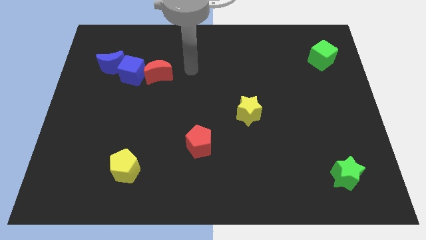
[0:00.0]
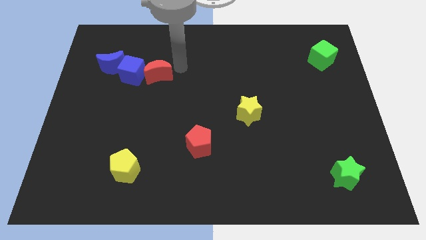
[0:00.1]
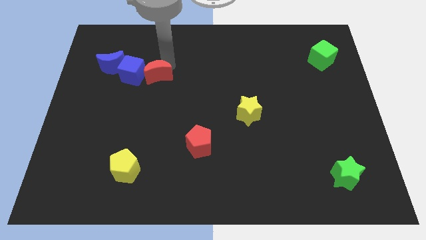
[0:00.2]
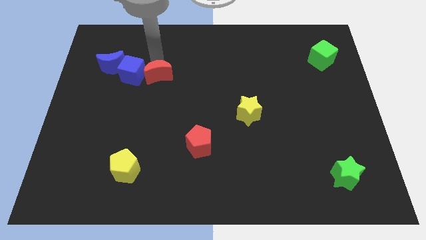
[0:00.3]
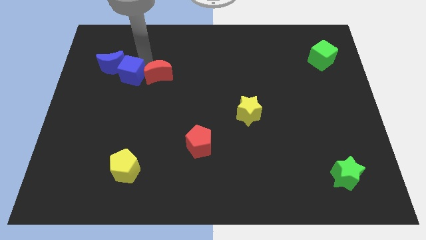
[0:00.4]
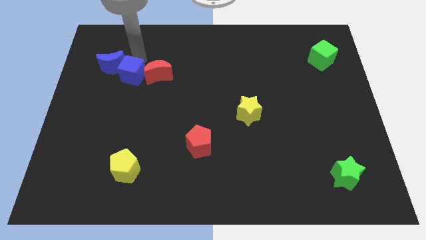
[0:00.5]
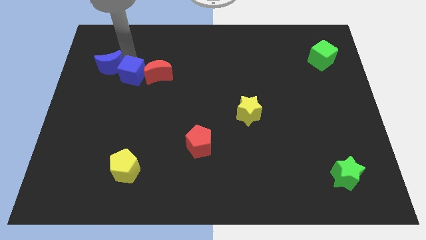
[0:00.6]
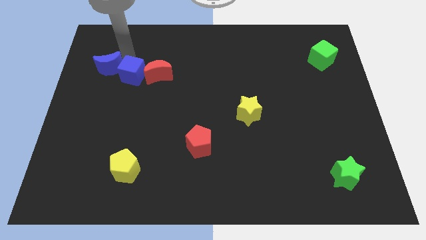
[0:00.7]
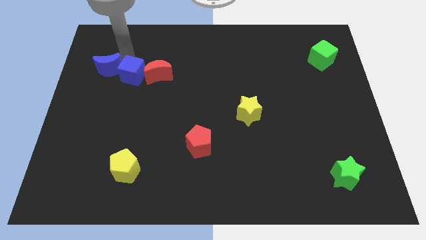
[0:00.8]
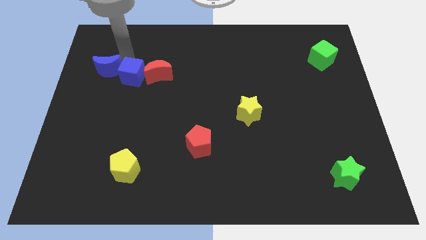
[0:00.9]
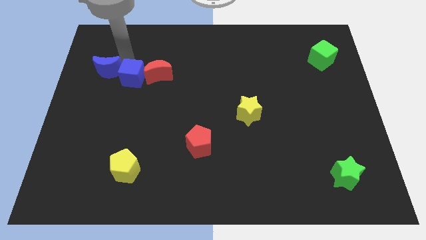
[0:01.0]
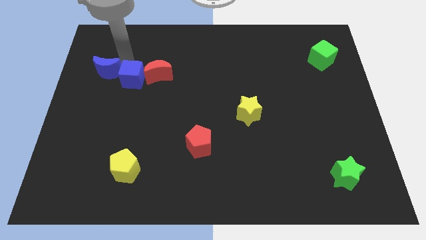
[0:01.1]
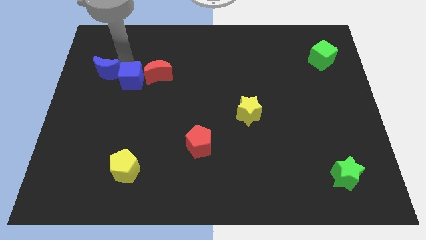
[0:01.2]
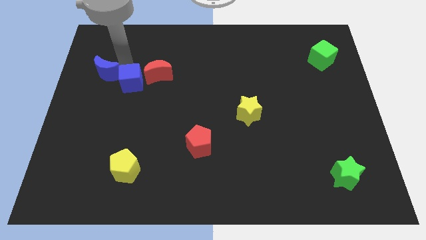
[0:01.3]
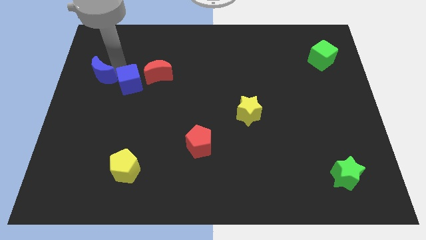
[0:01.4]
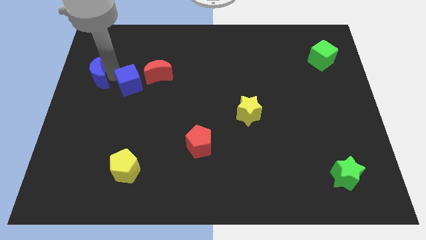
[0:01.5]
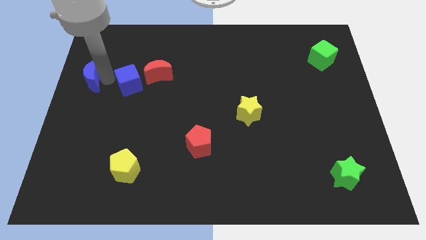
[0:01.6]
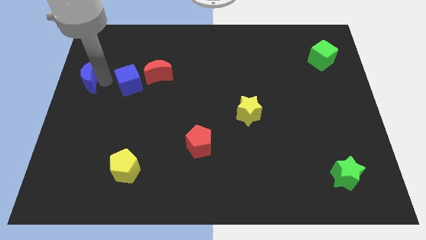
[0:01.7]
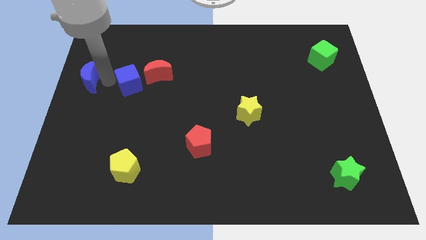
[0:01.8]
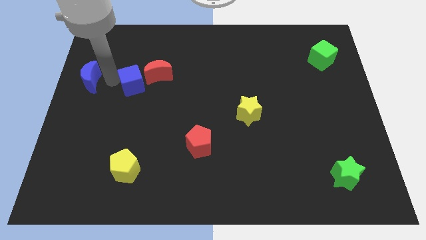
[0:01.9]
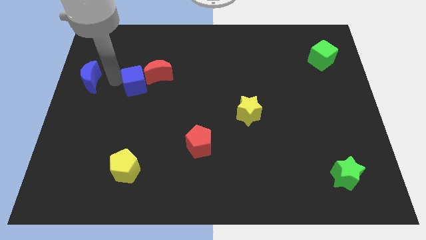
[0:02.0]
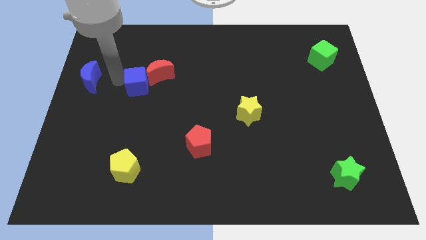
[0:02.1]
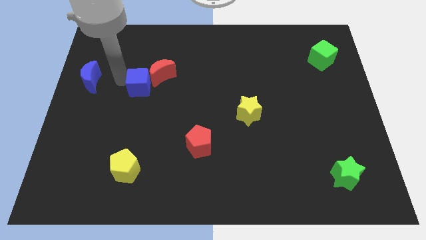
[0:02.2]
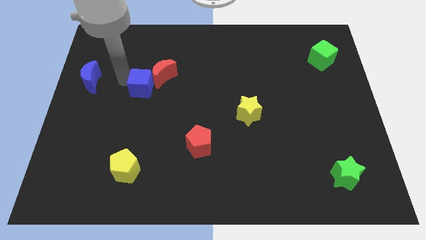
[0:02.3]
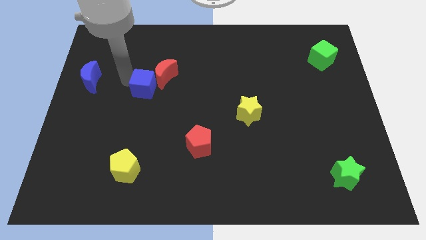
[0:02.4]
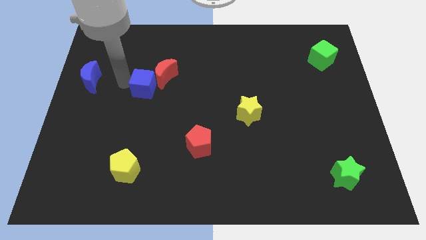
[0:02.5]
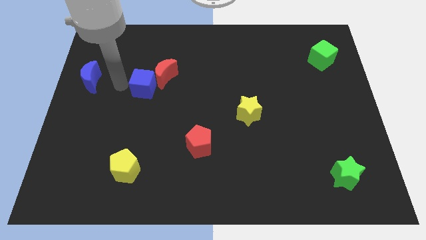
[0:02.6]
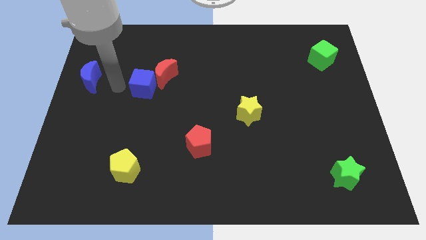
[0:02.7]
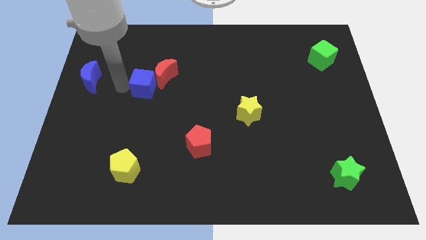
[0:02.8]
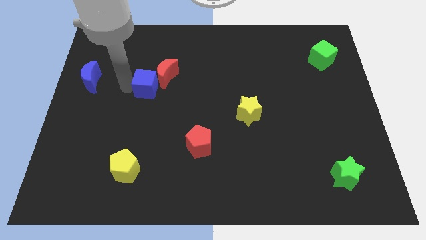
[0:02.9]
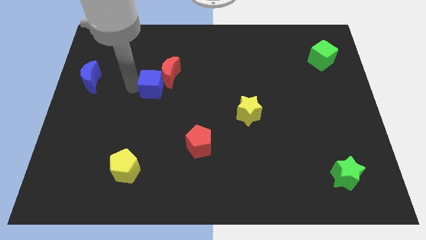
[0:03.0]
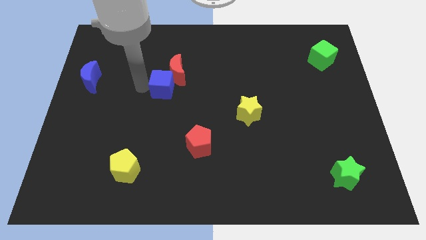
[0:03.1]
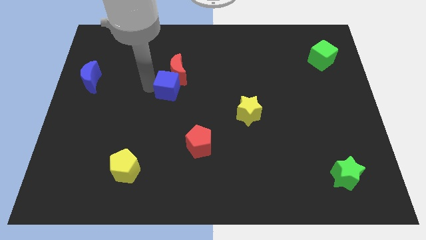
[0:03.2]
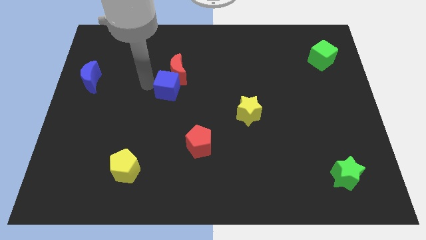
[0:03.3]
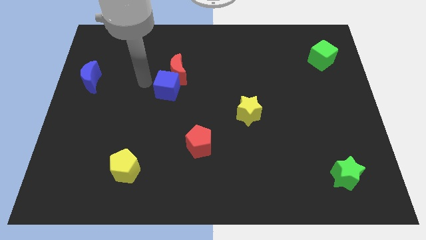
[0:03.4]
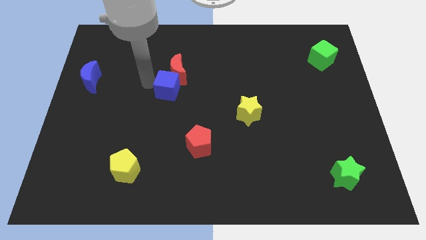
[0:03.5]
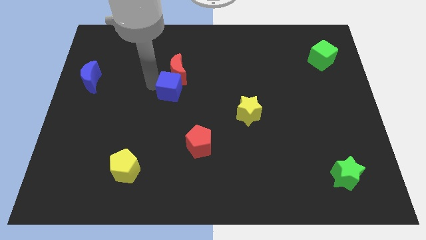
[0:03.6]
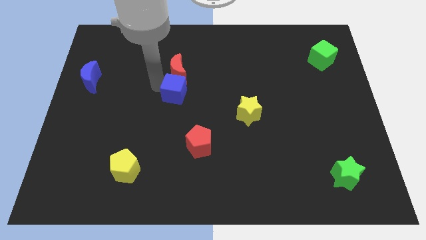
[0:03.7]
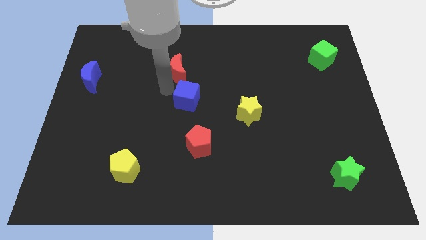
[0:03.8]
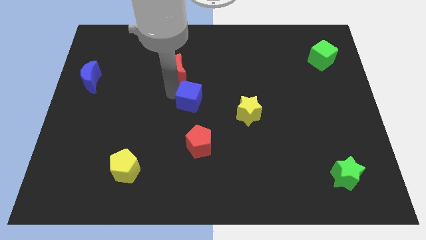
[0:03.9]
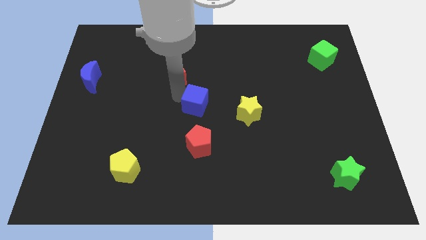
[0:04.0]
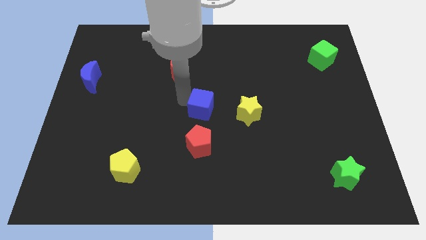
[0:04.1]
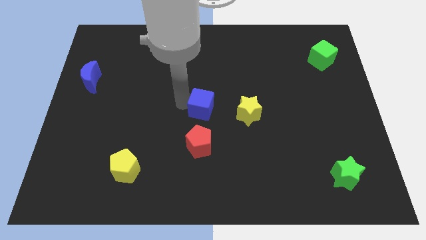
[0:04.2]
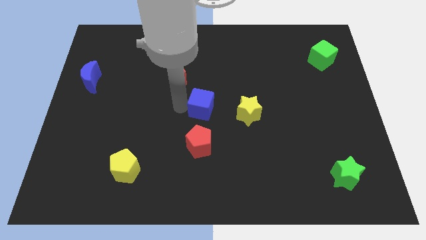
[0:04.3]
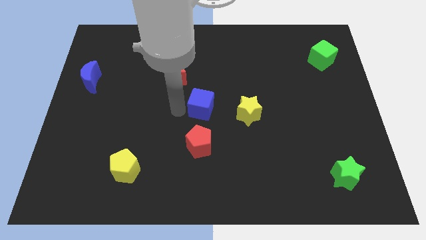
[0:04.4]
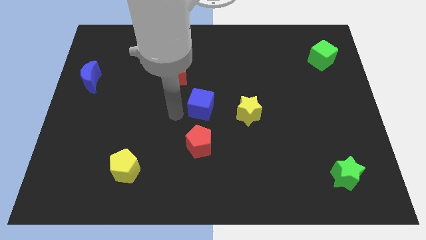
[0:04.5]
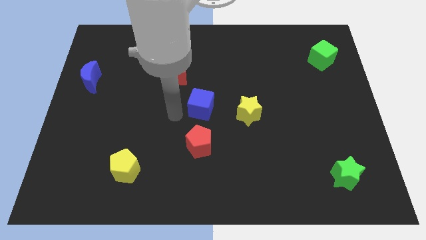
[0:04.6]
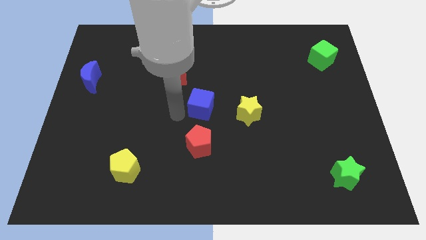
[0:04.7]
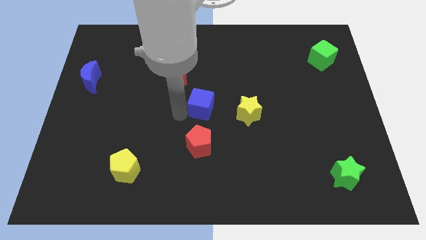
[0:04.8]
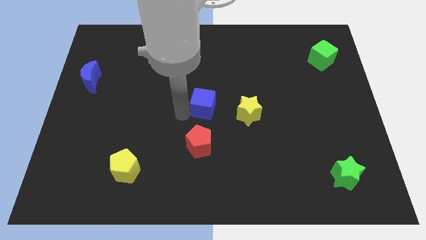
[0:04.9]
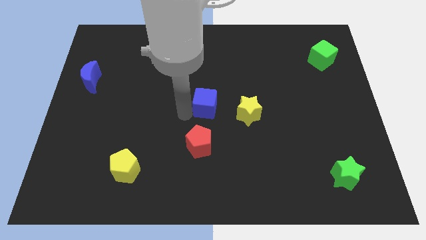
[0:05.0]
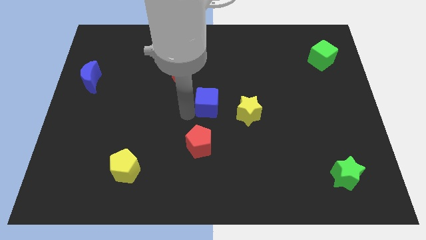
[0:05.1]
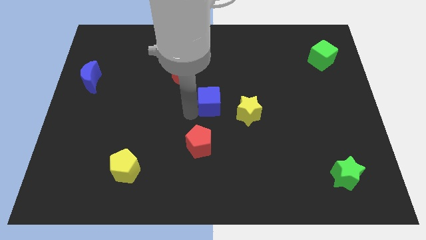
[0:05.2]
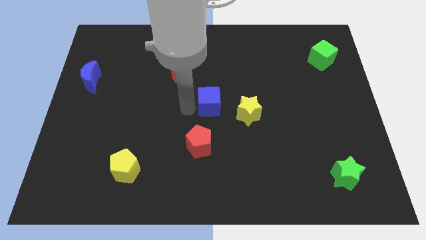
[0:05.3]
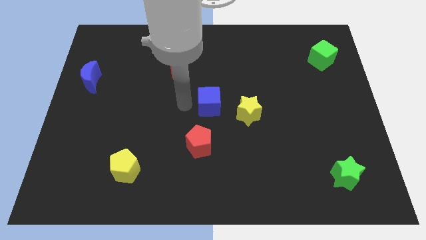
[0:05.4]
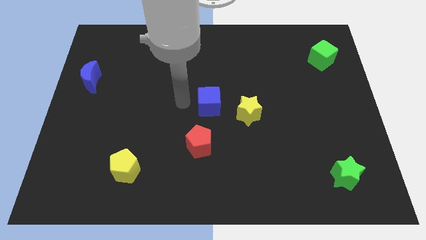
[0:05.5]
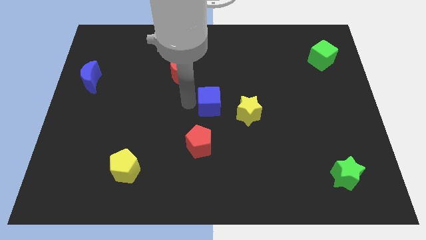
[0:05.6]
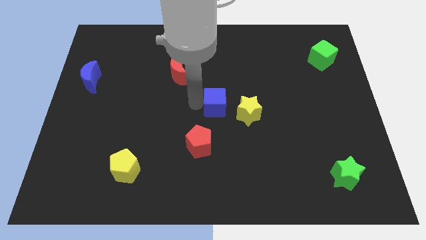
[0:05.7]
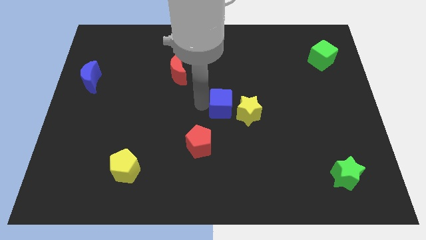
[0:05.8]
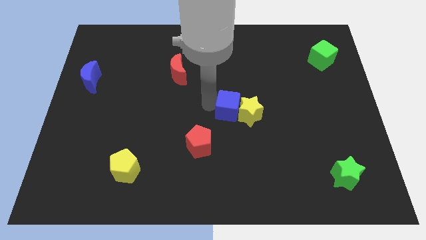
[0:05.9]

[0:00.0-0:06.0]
slide the blue cube towards the yellow star
